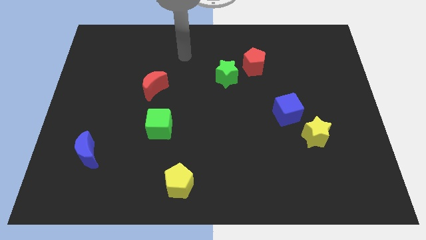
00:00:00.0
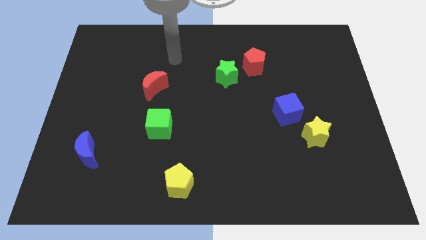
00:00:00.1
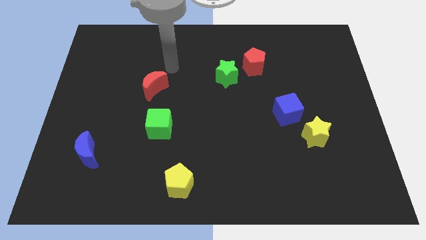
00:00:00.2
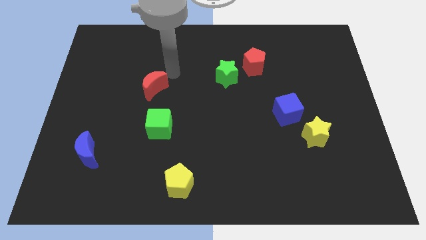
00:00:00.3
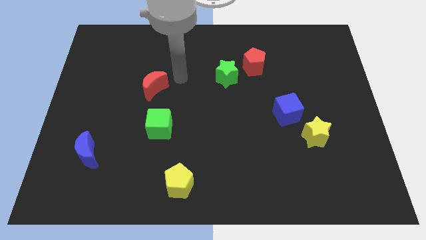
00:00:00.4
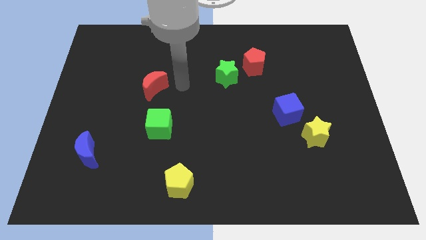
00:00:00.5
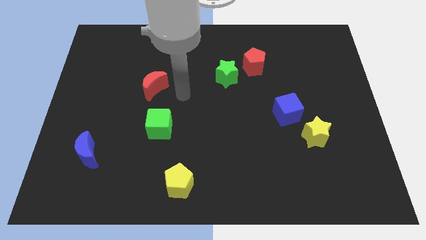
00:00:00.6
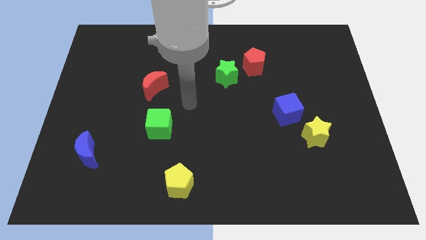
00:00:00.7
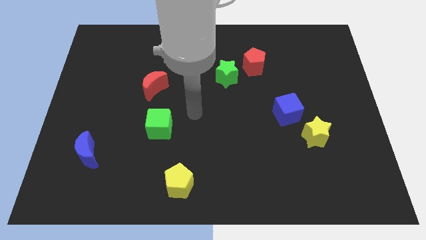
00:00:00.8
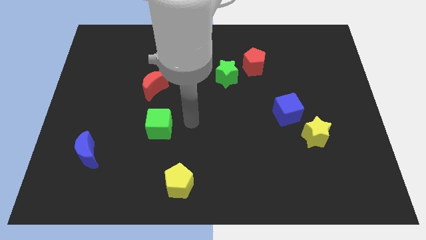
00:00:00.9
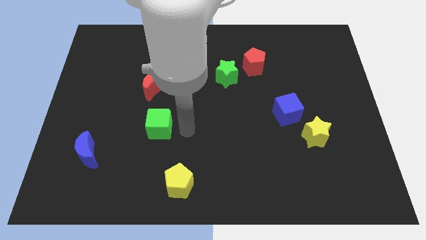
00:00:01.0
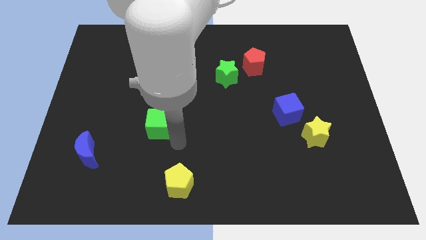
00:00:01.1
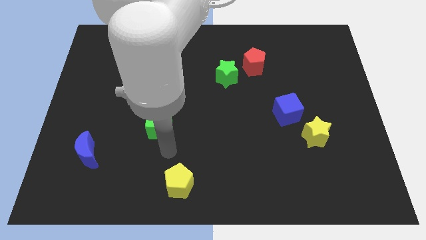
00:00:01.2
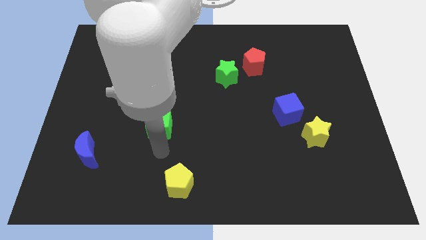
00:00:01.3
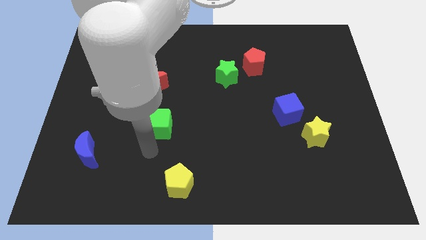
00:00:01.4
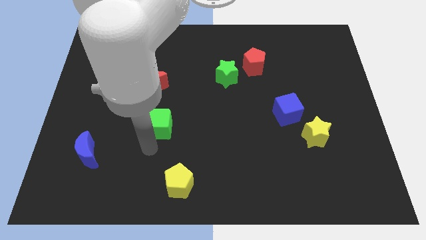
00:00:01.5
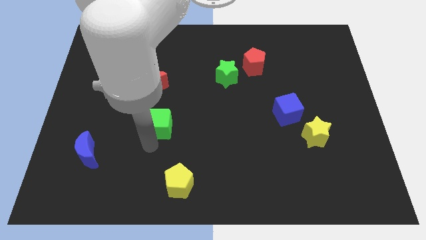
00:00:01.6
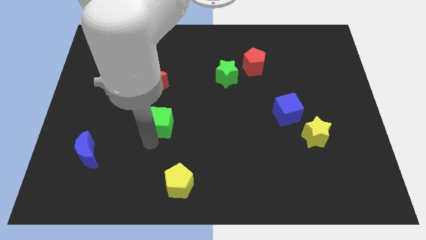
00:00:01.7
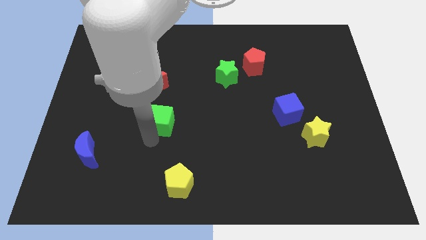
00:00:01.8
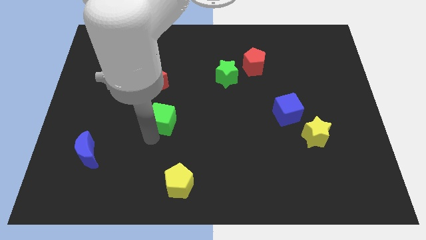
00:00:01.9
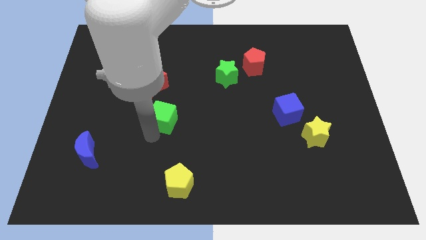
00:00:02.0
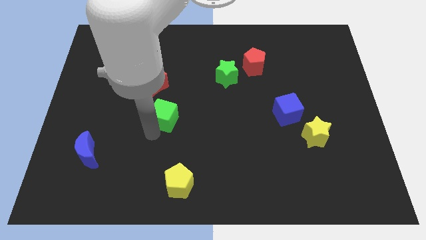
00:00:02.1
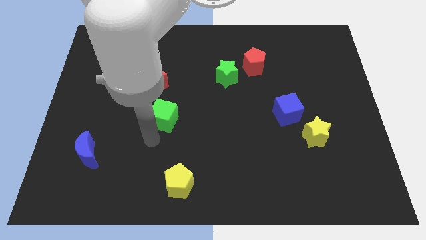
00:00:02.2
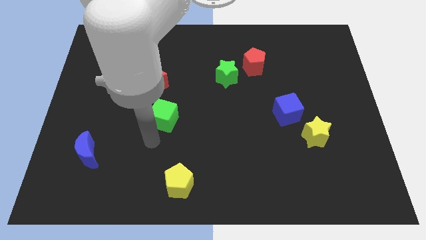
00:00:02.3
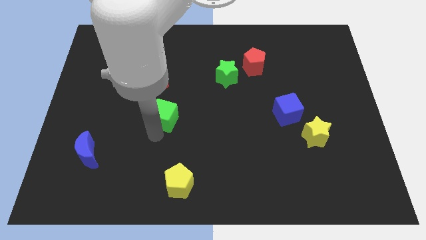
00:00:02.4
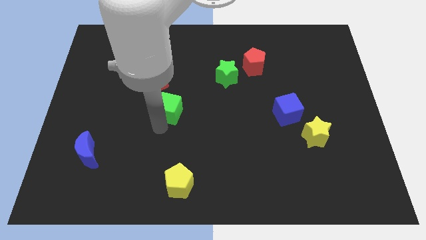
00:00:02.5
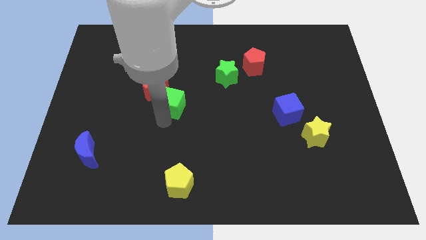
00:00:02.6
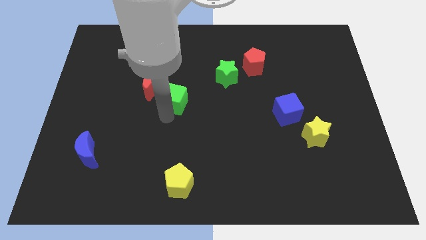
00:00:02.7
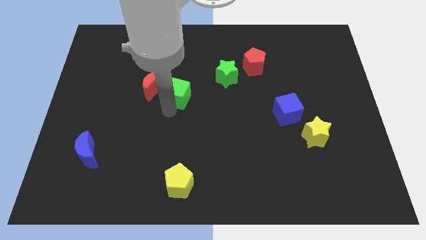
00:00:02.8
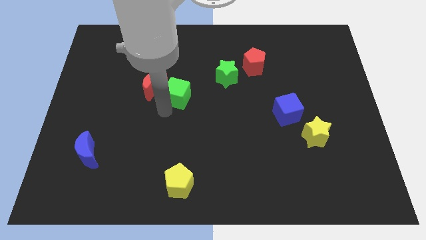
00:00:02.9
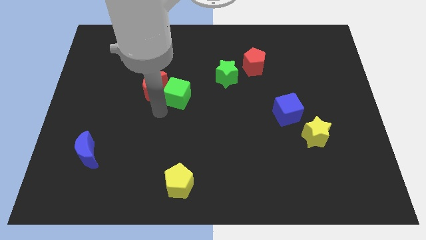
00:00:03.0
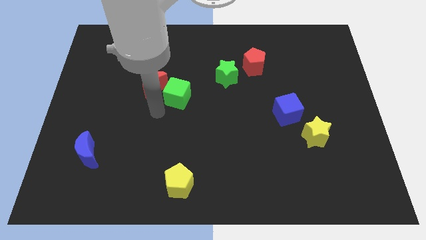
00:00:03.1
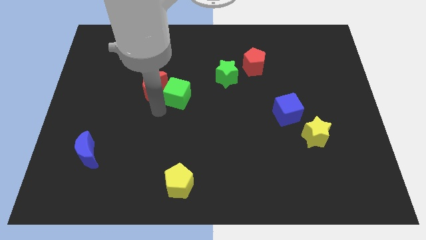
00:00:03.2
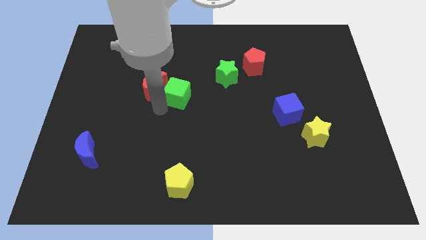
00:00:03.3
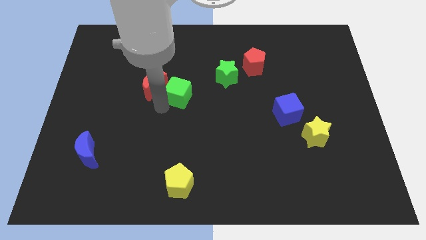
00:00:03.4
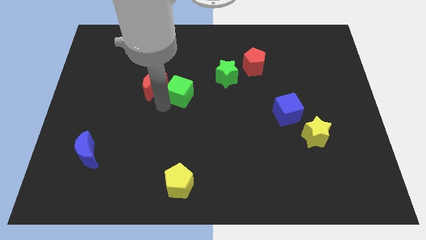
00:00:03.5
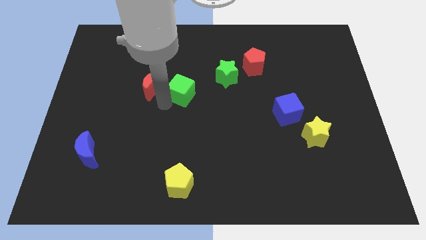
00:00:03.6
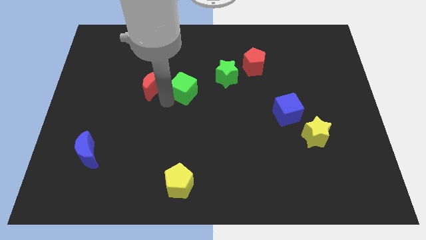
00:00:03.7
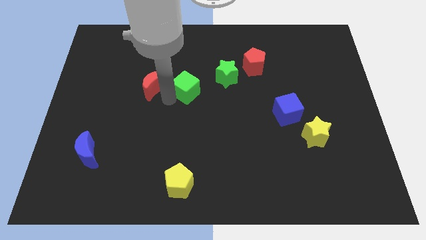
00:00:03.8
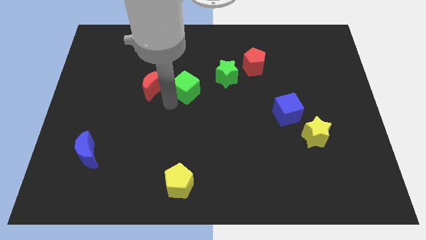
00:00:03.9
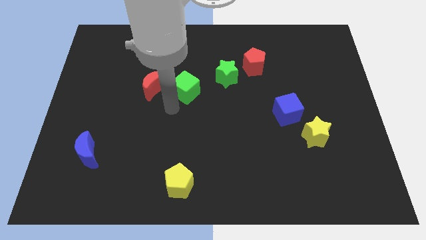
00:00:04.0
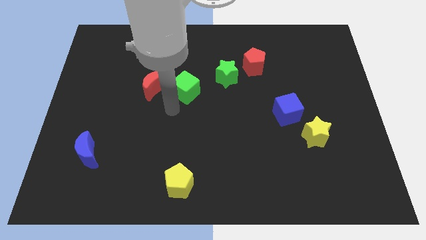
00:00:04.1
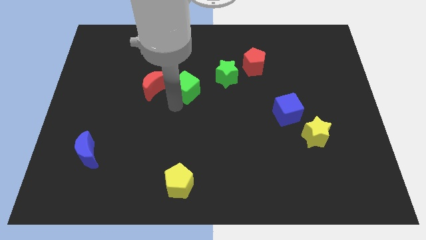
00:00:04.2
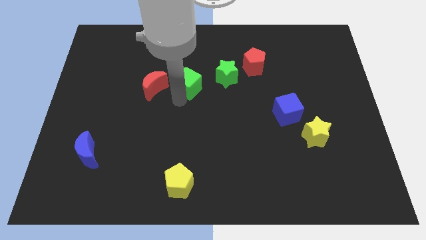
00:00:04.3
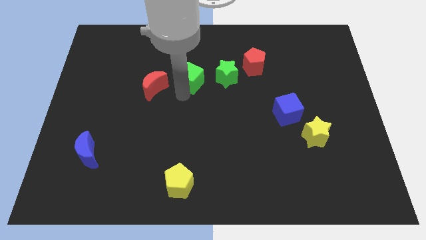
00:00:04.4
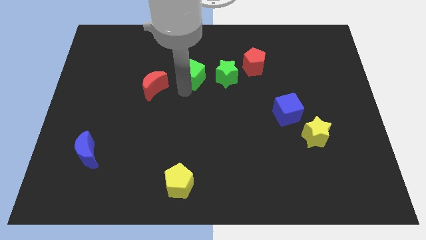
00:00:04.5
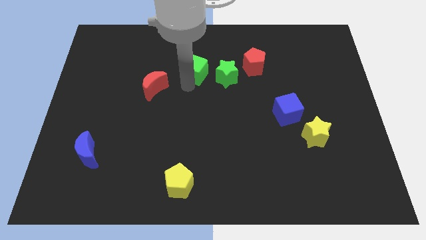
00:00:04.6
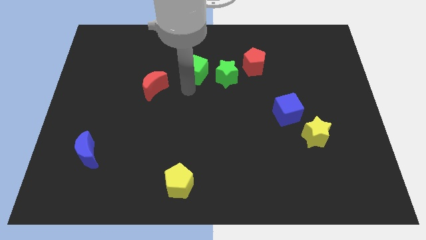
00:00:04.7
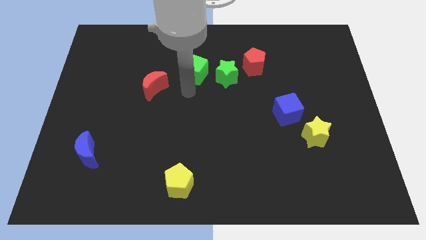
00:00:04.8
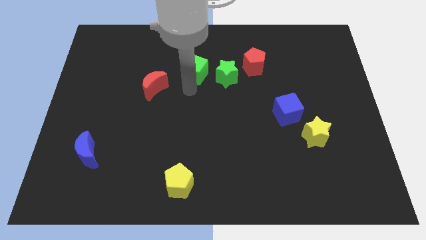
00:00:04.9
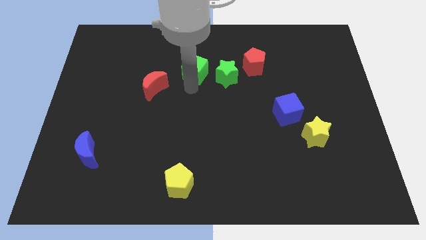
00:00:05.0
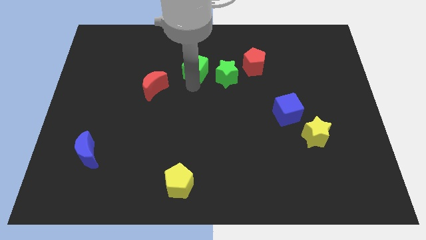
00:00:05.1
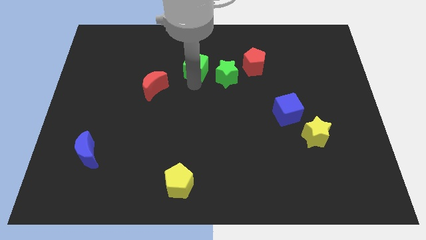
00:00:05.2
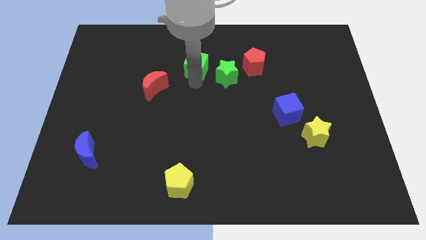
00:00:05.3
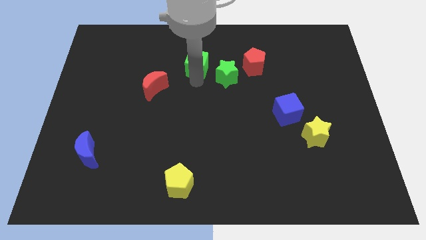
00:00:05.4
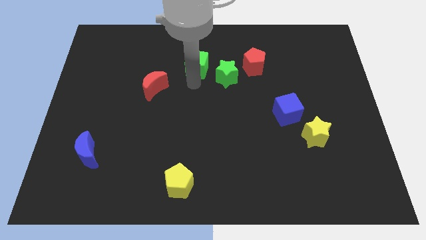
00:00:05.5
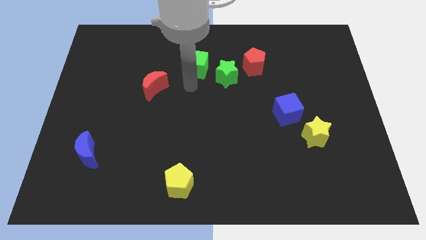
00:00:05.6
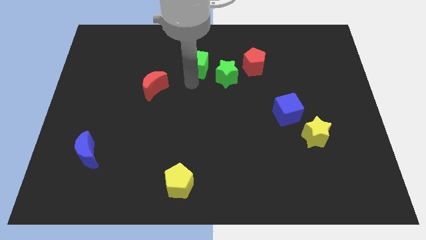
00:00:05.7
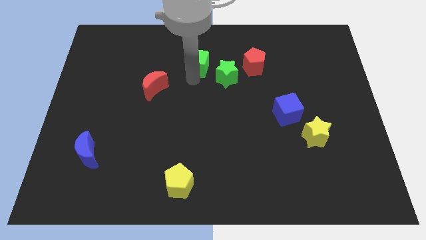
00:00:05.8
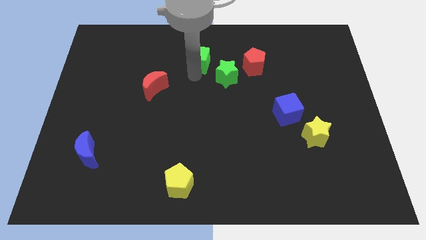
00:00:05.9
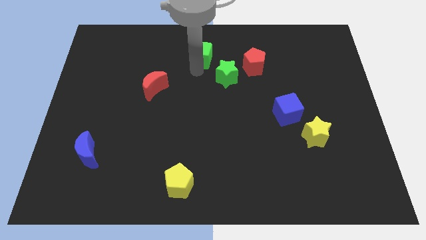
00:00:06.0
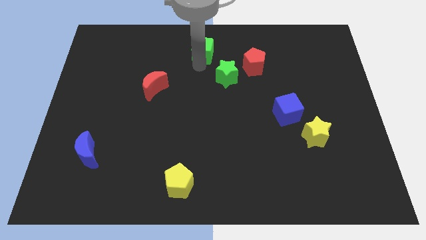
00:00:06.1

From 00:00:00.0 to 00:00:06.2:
push the green cube to the towards your base

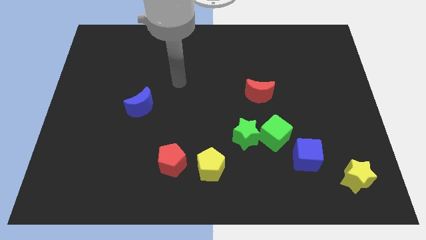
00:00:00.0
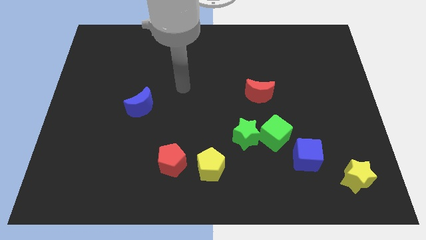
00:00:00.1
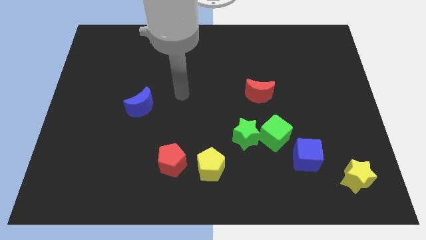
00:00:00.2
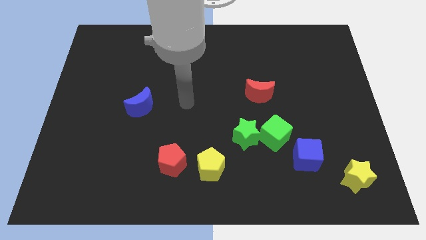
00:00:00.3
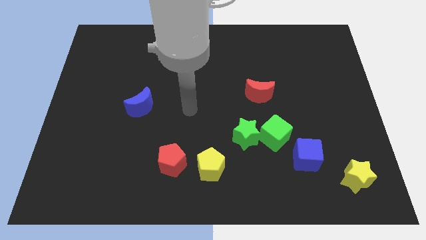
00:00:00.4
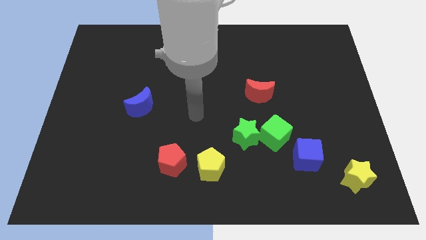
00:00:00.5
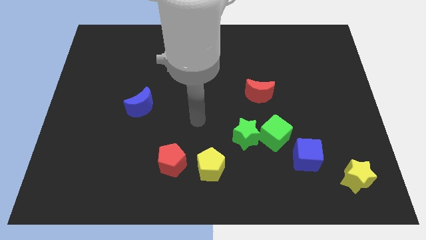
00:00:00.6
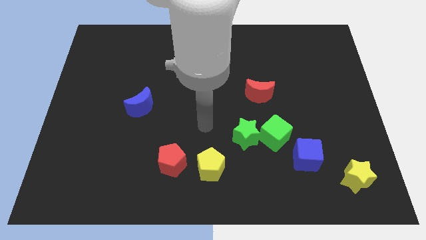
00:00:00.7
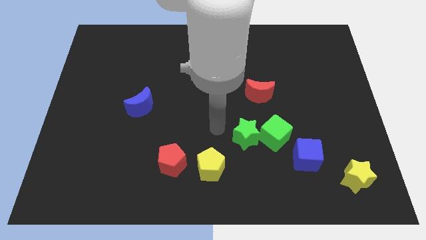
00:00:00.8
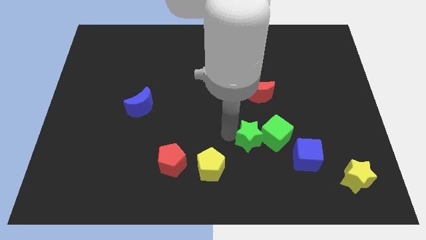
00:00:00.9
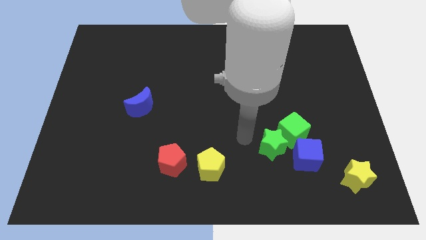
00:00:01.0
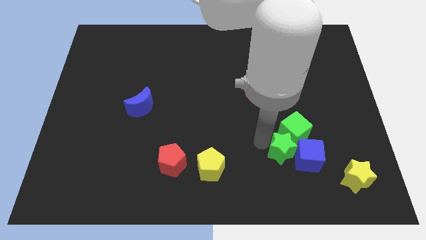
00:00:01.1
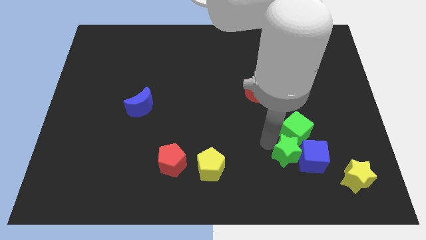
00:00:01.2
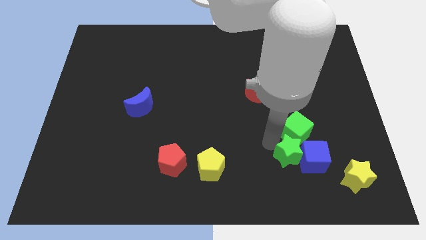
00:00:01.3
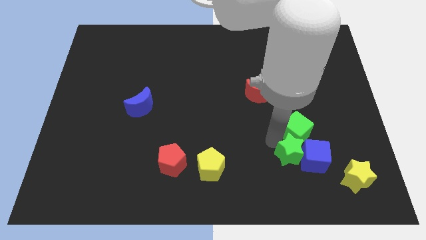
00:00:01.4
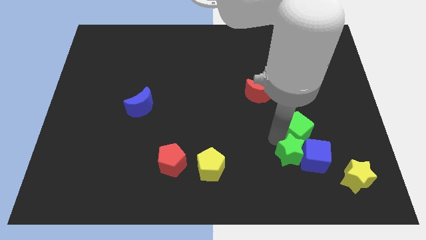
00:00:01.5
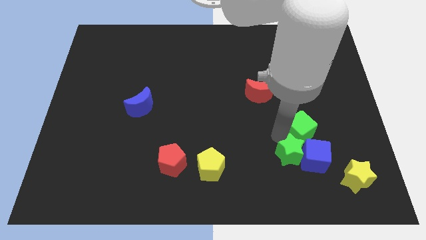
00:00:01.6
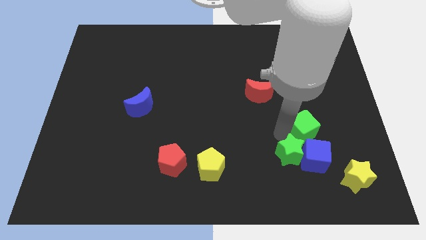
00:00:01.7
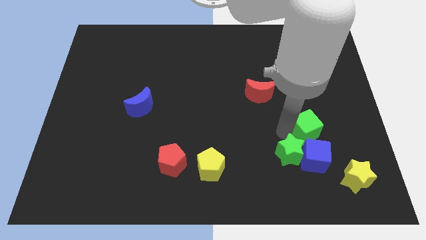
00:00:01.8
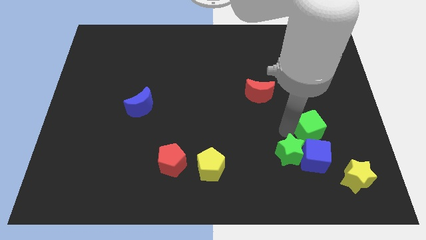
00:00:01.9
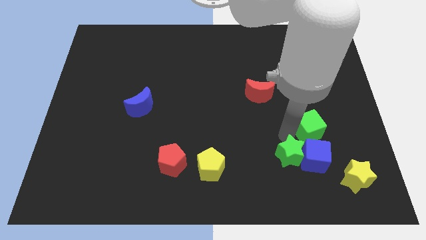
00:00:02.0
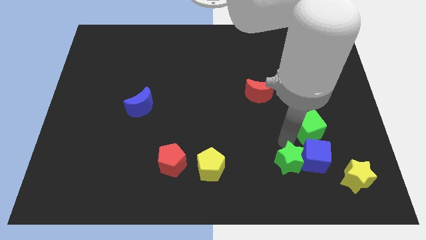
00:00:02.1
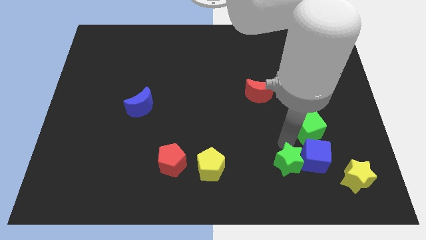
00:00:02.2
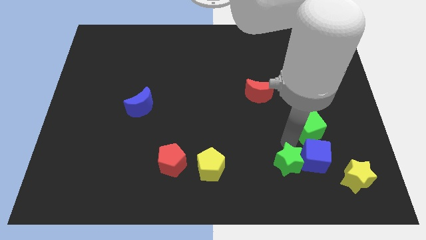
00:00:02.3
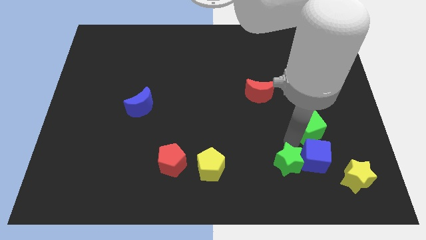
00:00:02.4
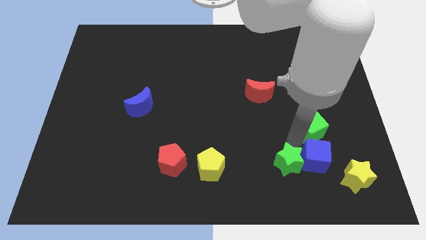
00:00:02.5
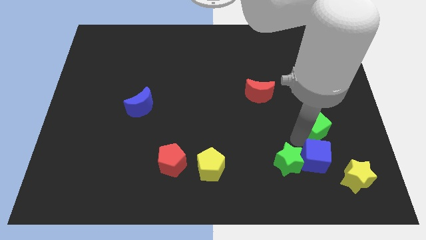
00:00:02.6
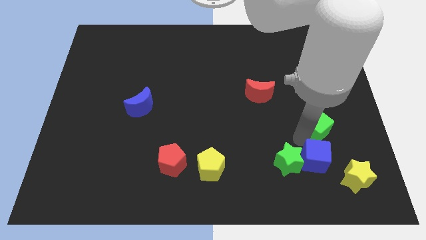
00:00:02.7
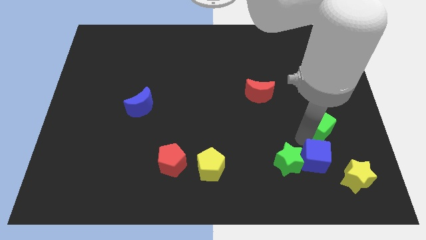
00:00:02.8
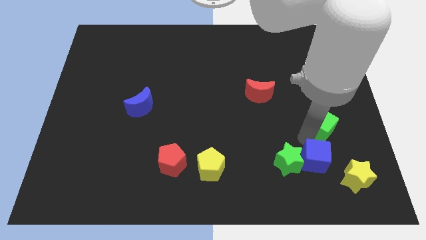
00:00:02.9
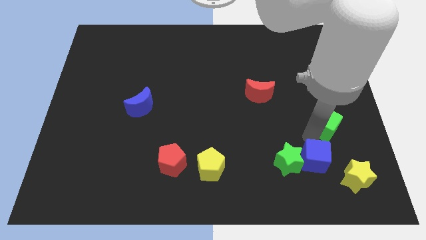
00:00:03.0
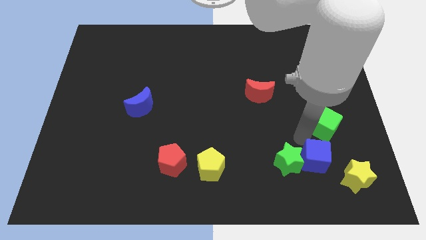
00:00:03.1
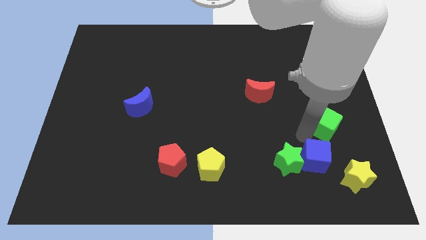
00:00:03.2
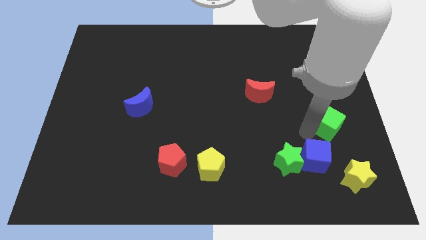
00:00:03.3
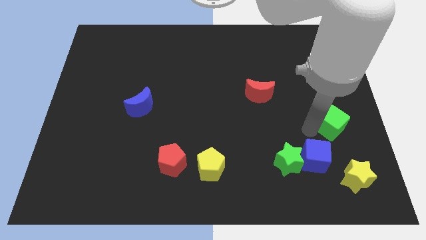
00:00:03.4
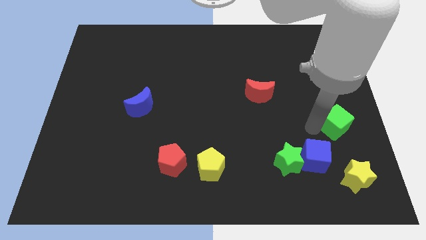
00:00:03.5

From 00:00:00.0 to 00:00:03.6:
put the green cube to the right side of the board
